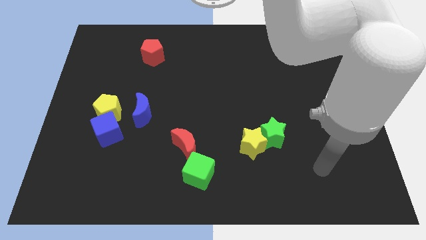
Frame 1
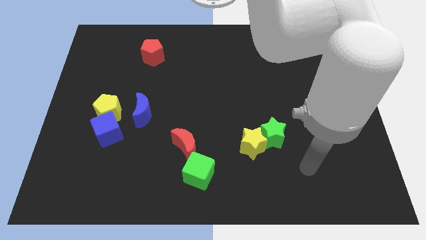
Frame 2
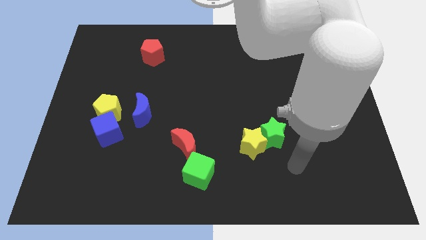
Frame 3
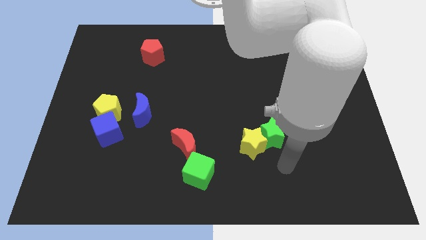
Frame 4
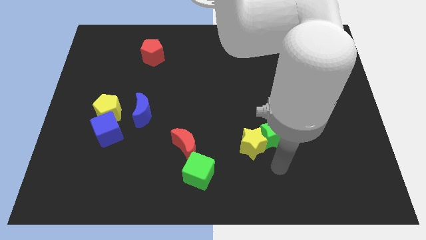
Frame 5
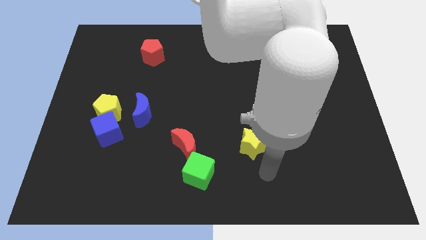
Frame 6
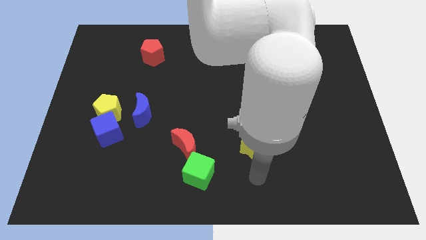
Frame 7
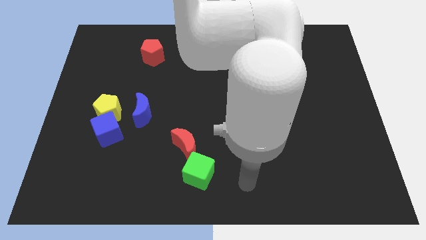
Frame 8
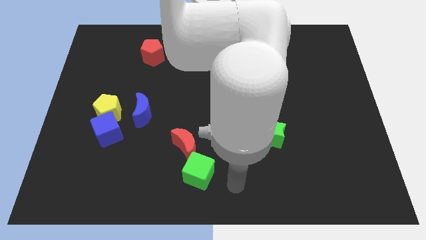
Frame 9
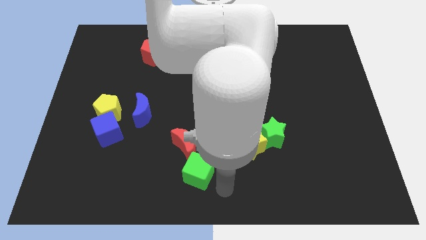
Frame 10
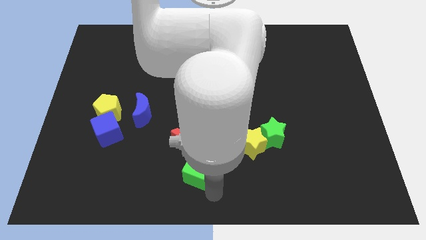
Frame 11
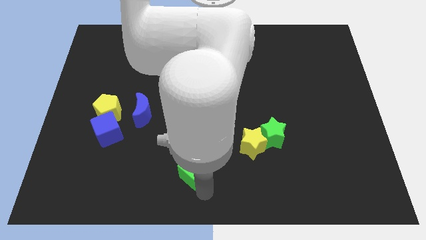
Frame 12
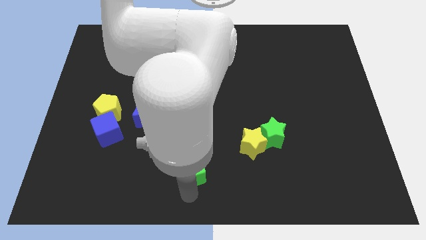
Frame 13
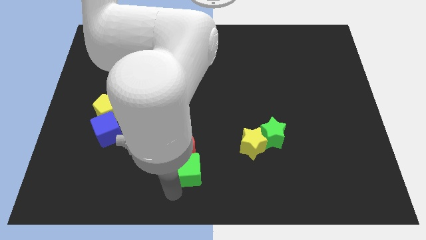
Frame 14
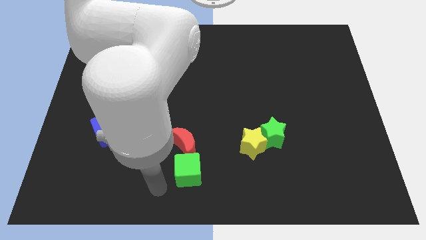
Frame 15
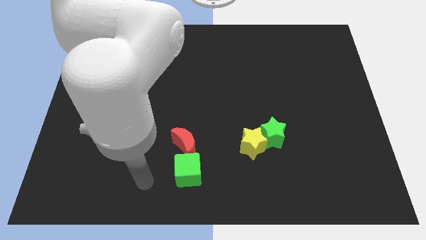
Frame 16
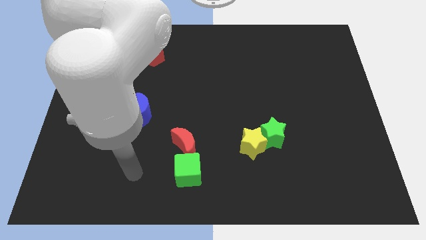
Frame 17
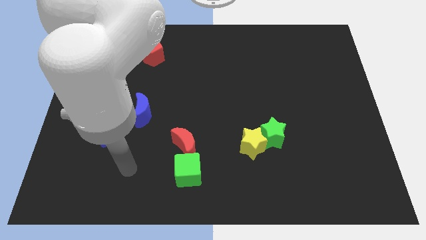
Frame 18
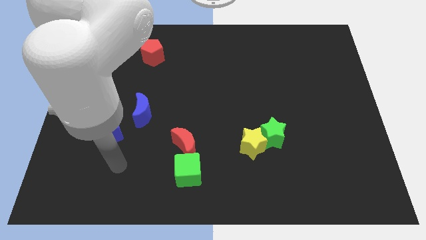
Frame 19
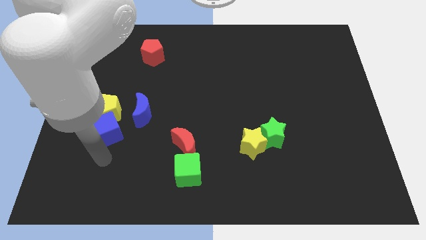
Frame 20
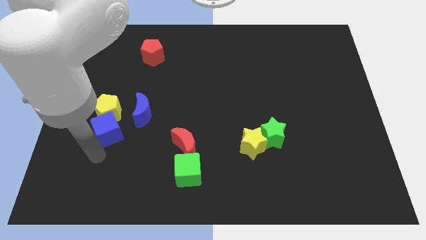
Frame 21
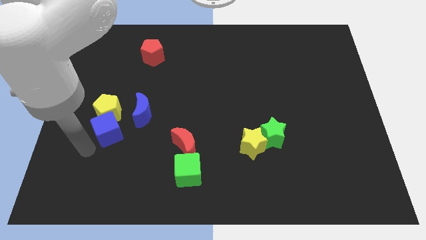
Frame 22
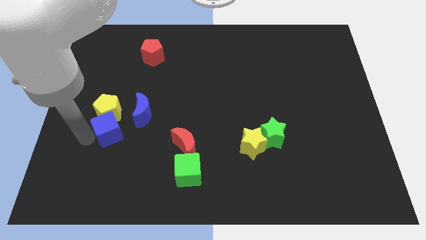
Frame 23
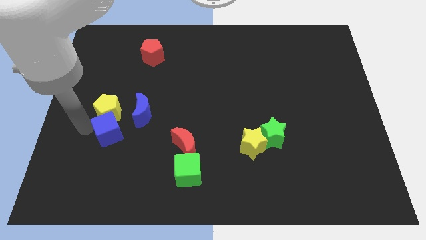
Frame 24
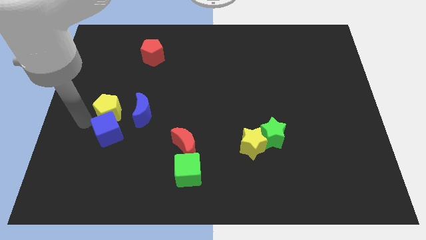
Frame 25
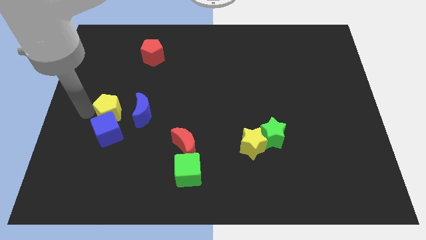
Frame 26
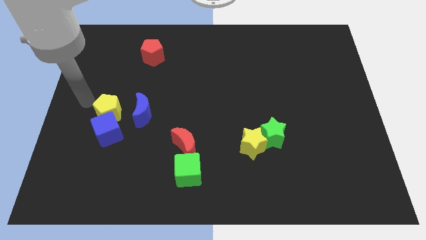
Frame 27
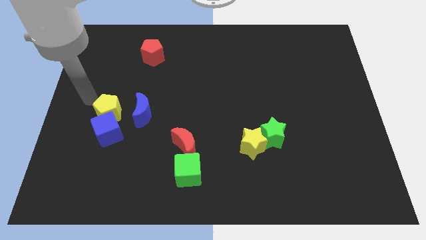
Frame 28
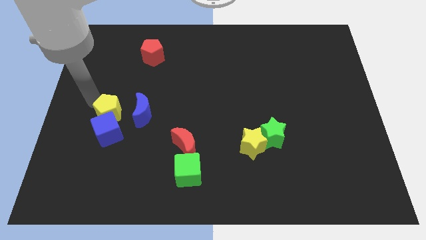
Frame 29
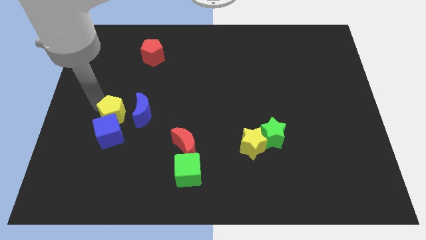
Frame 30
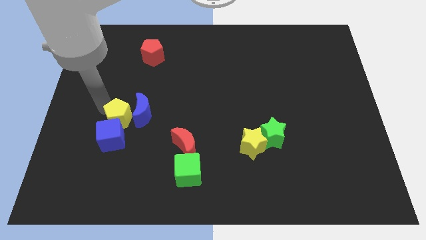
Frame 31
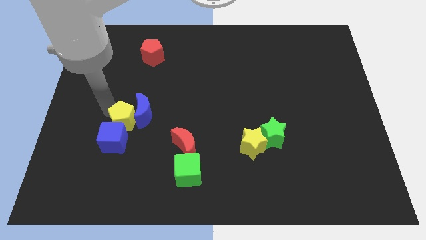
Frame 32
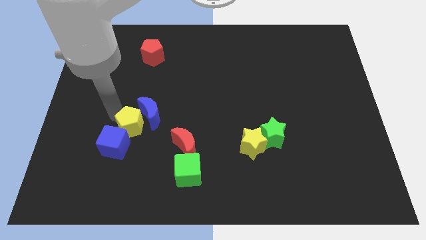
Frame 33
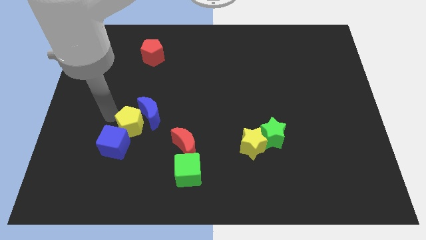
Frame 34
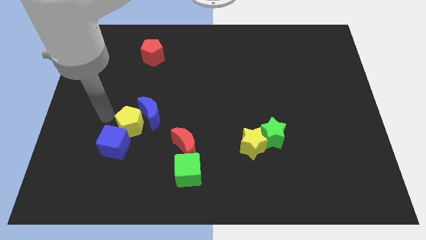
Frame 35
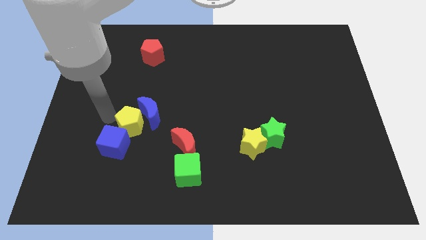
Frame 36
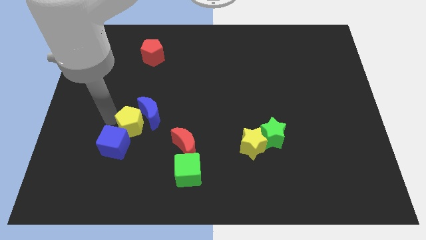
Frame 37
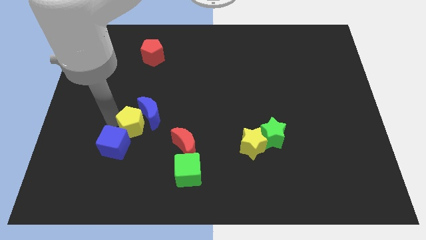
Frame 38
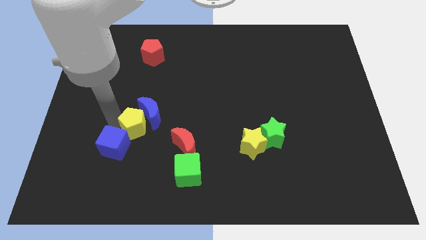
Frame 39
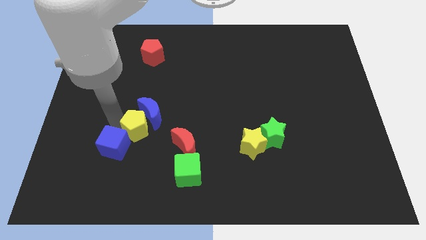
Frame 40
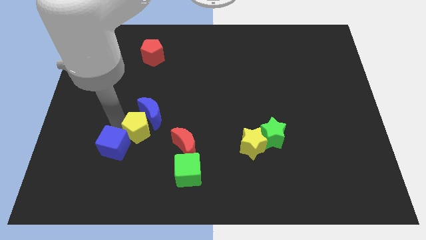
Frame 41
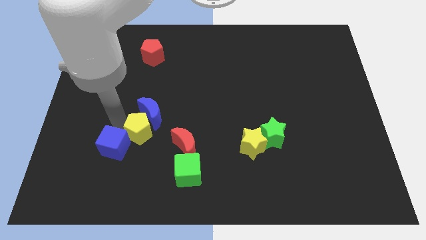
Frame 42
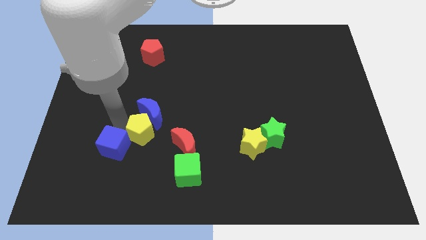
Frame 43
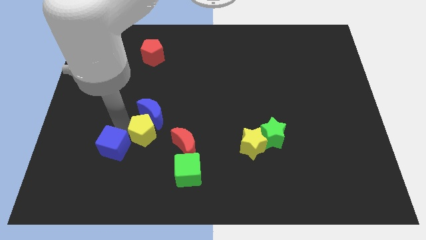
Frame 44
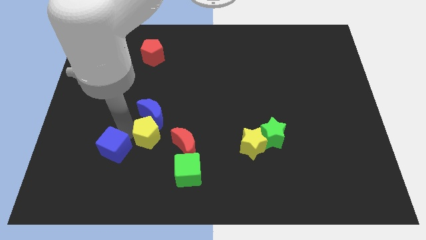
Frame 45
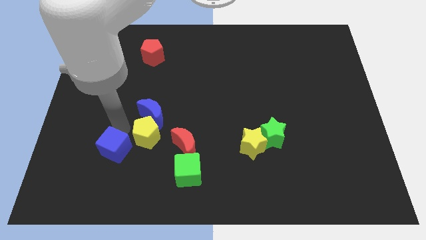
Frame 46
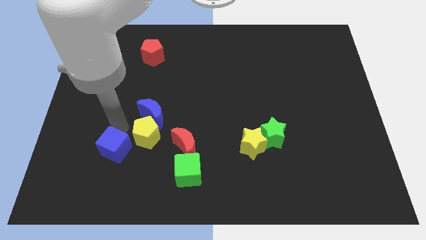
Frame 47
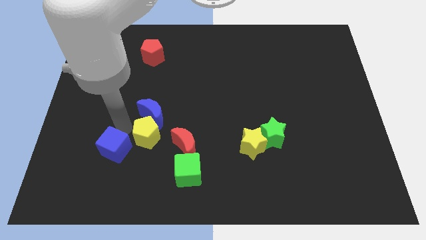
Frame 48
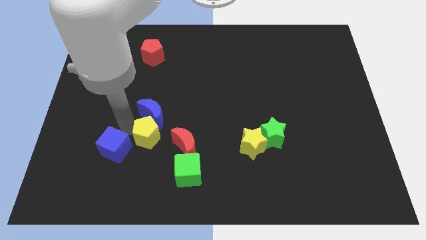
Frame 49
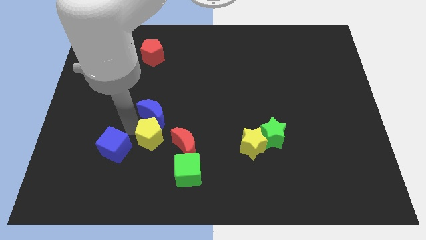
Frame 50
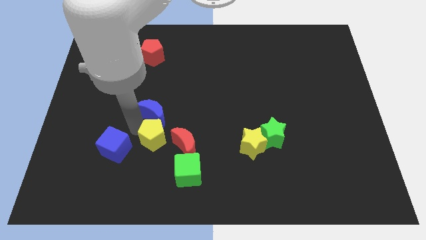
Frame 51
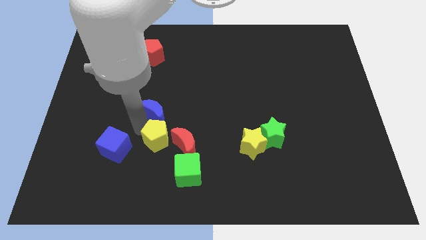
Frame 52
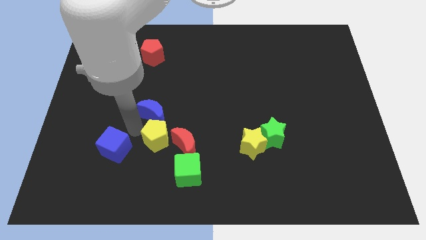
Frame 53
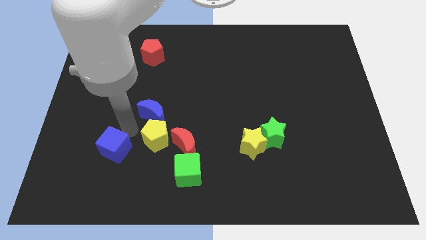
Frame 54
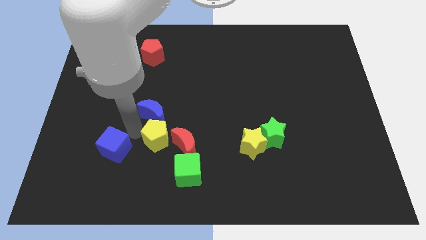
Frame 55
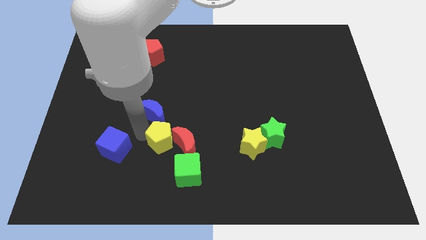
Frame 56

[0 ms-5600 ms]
slide the yellow pentagon next to the red moon

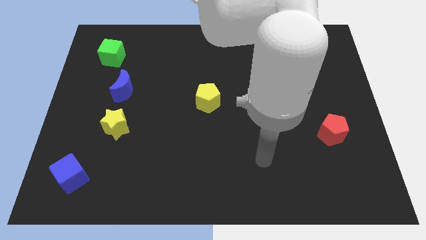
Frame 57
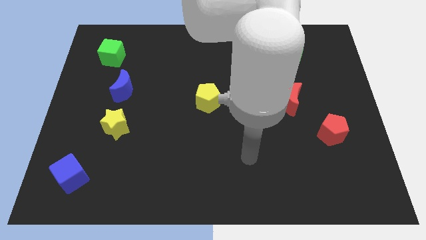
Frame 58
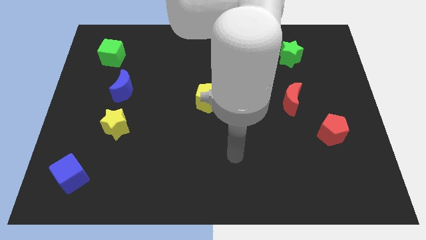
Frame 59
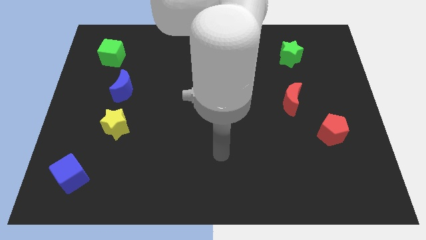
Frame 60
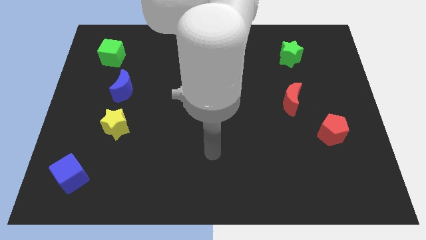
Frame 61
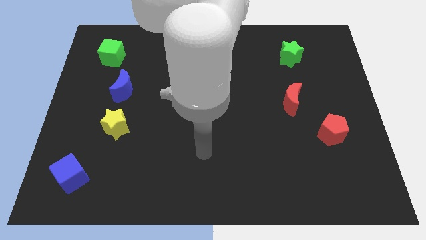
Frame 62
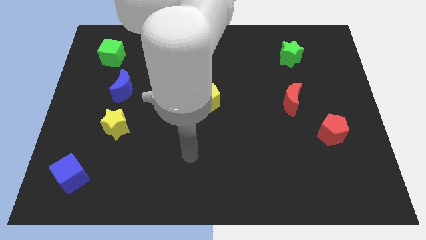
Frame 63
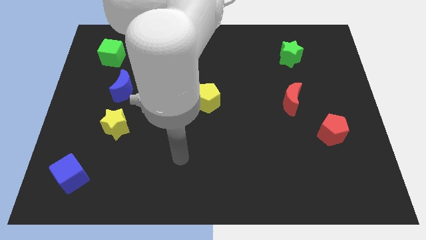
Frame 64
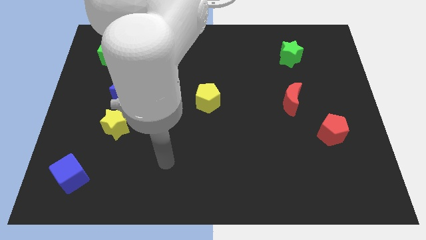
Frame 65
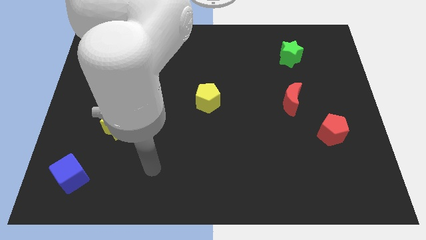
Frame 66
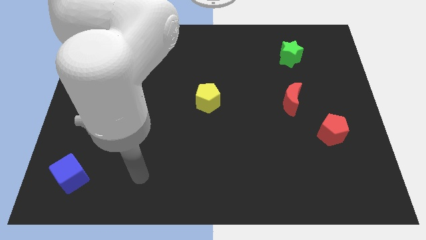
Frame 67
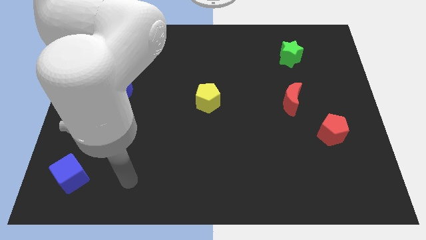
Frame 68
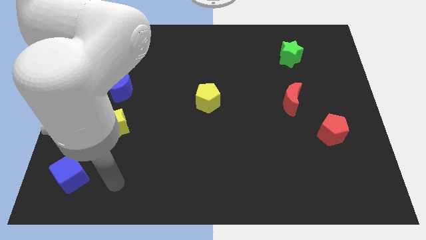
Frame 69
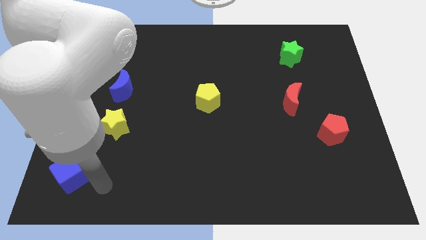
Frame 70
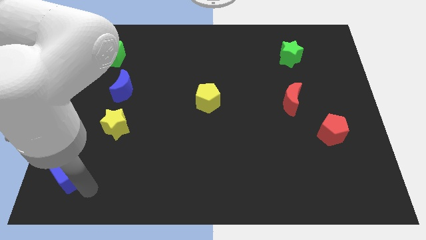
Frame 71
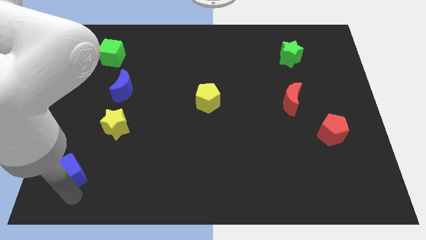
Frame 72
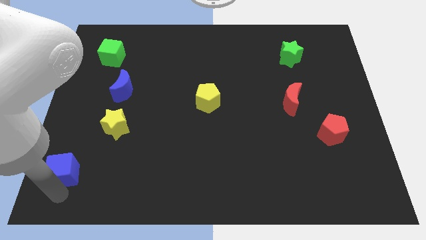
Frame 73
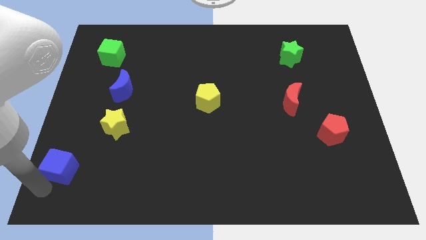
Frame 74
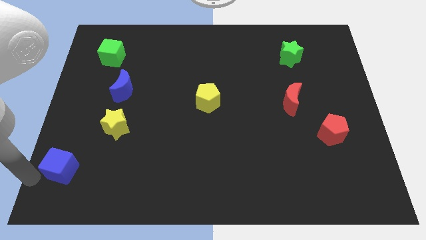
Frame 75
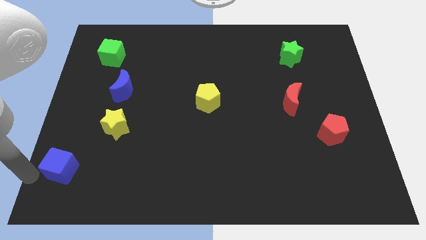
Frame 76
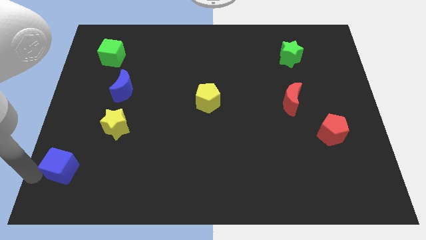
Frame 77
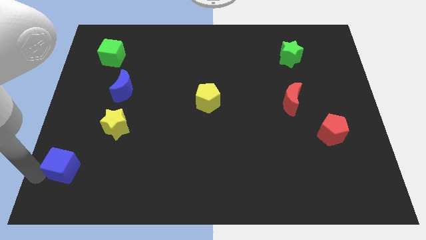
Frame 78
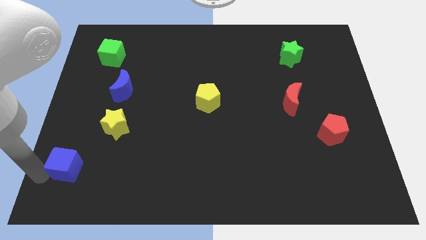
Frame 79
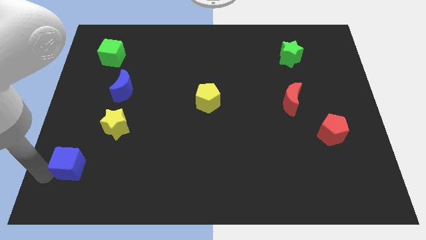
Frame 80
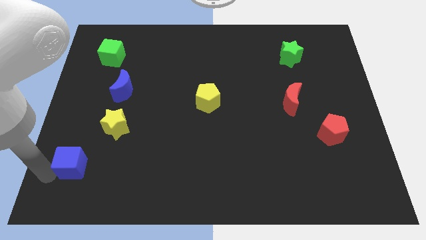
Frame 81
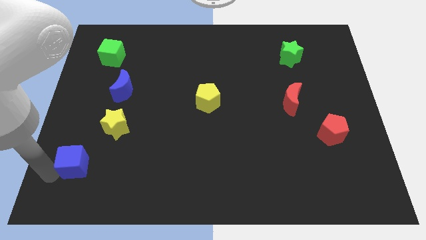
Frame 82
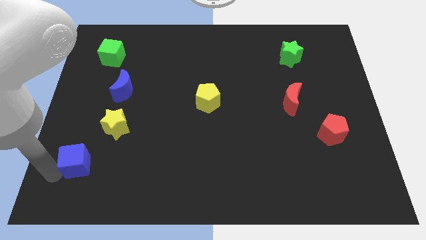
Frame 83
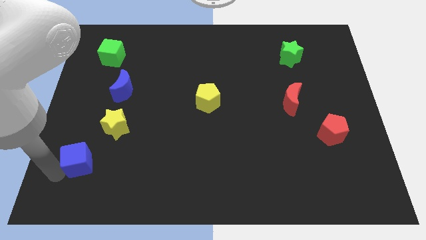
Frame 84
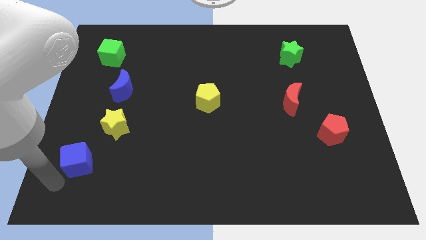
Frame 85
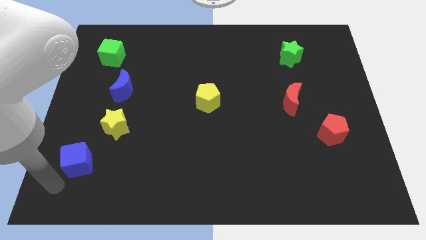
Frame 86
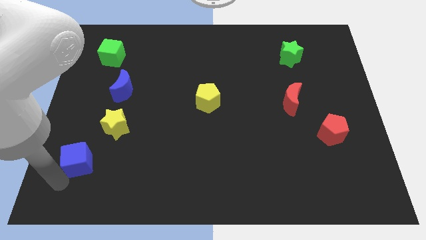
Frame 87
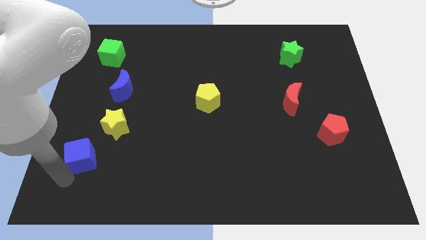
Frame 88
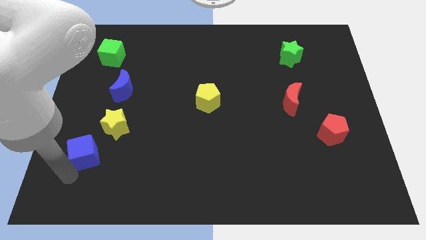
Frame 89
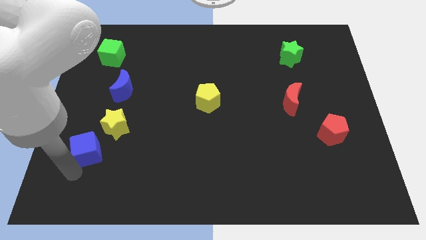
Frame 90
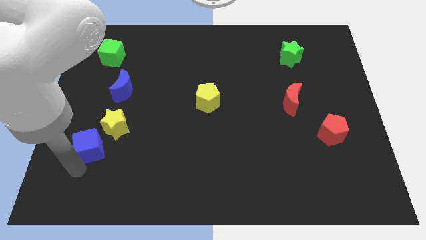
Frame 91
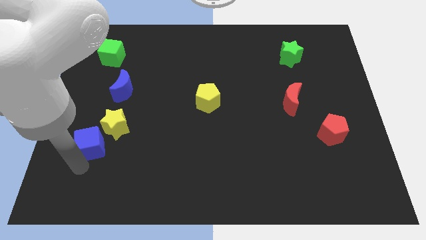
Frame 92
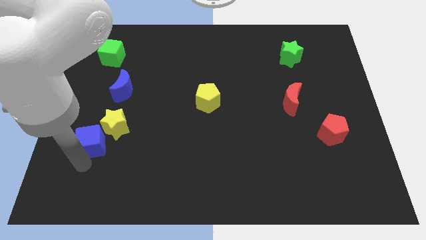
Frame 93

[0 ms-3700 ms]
put the blue cube next to the yellow star
